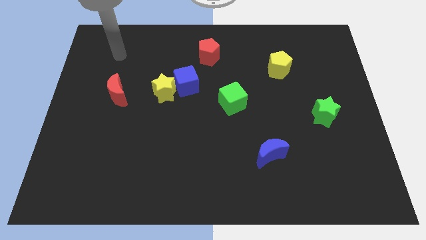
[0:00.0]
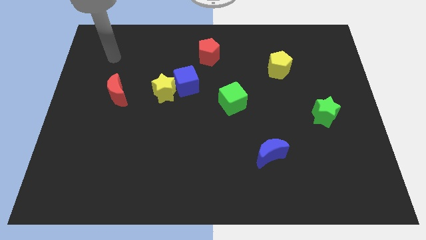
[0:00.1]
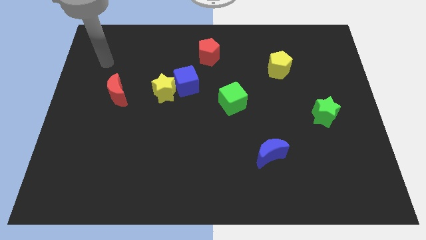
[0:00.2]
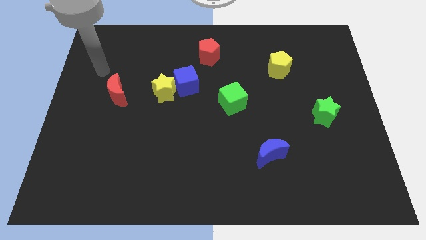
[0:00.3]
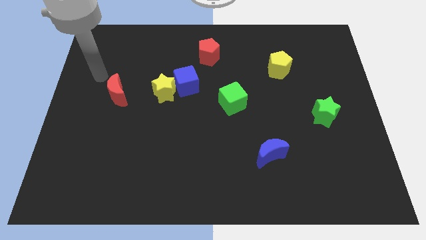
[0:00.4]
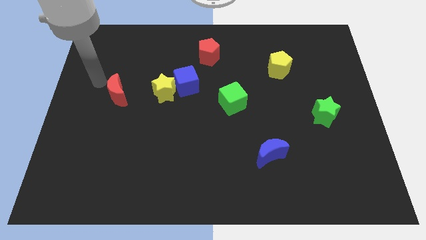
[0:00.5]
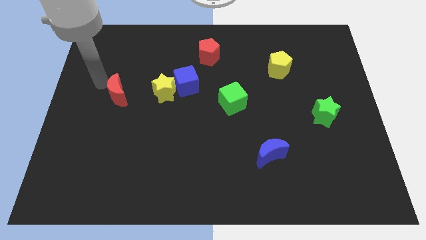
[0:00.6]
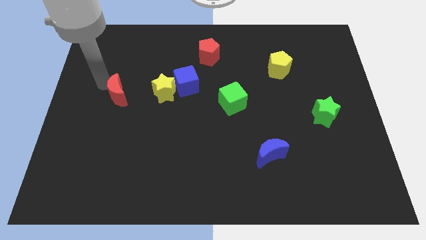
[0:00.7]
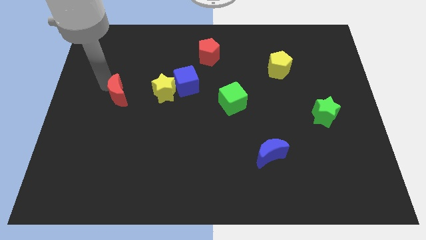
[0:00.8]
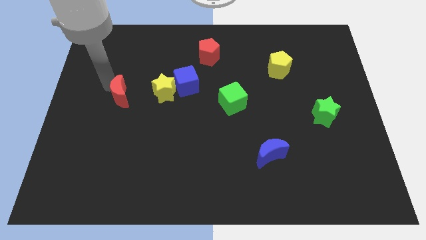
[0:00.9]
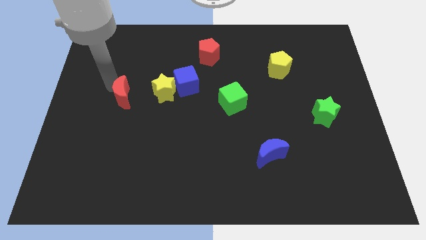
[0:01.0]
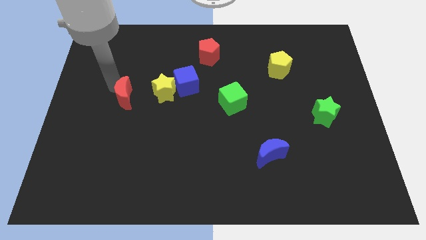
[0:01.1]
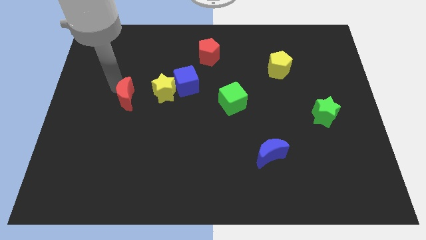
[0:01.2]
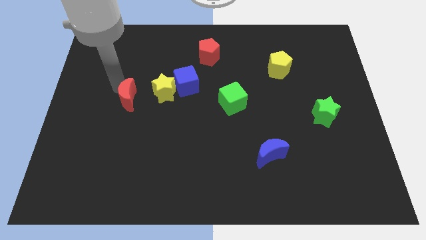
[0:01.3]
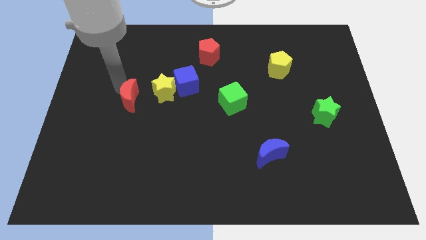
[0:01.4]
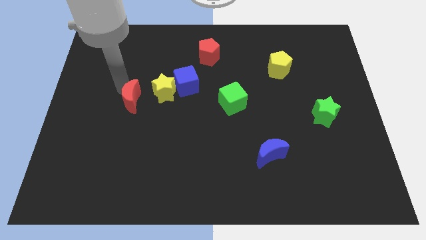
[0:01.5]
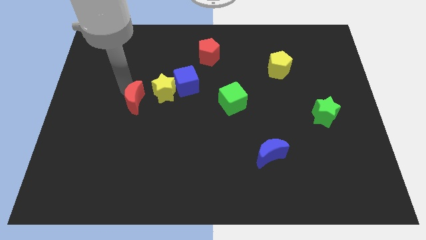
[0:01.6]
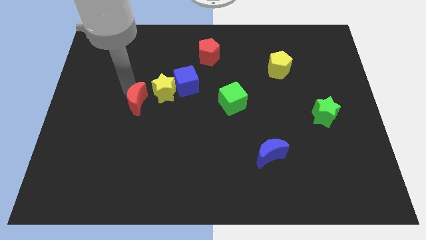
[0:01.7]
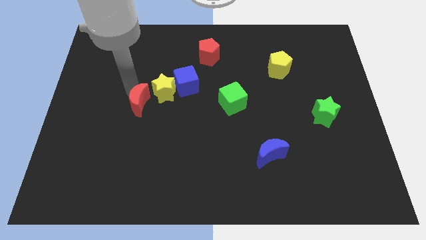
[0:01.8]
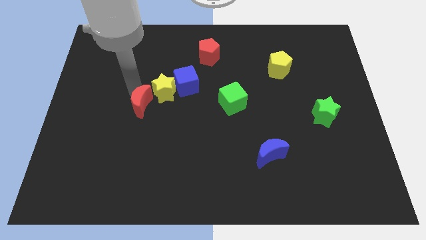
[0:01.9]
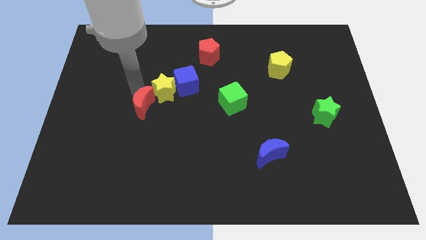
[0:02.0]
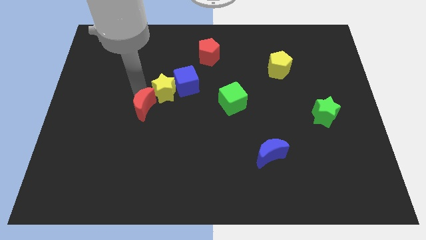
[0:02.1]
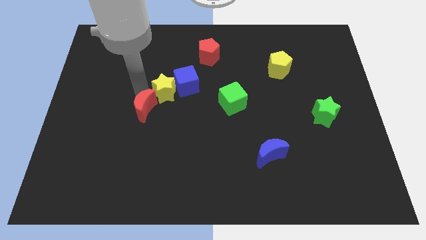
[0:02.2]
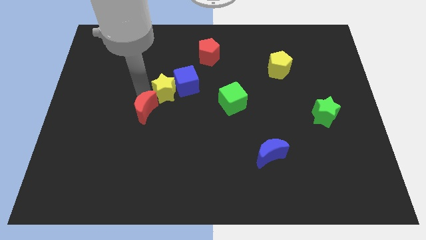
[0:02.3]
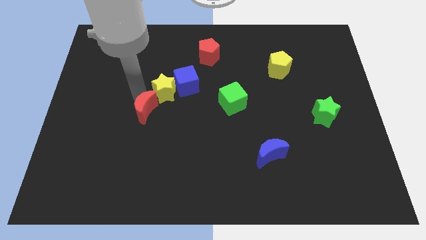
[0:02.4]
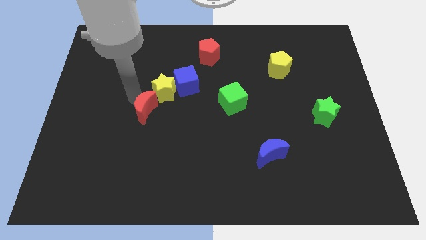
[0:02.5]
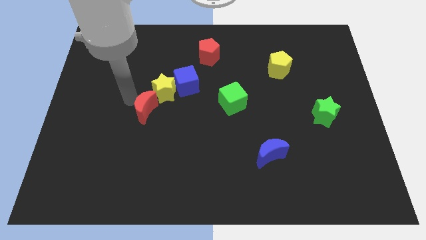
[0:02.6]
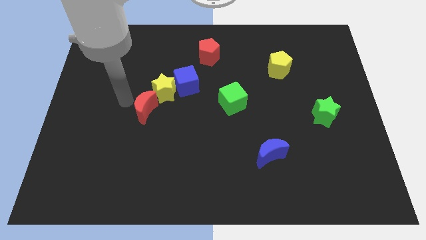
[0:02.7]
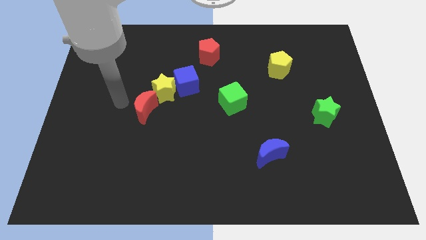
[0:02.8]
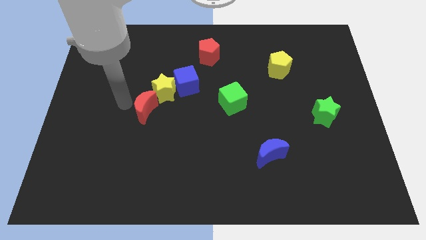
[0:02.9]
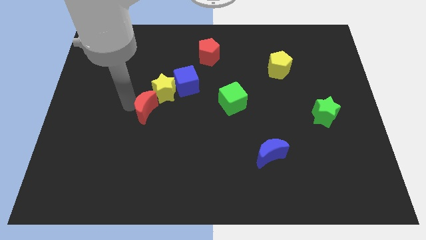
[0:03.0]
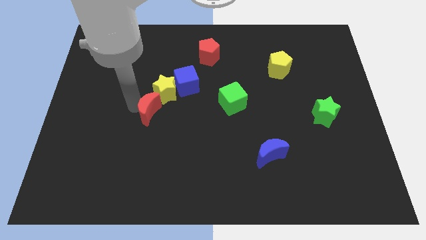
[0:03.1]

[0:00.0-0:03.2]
push the red moon somewhat right

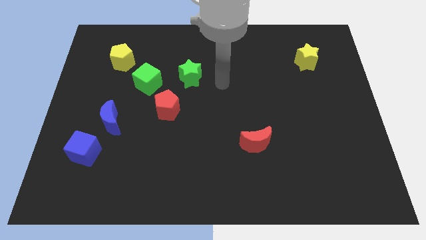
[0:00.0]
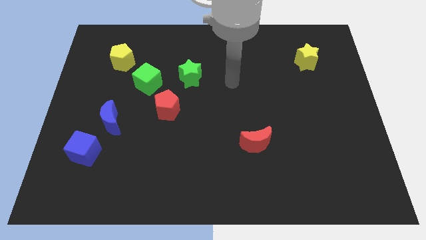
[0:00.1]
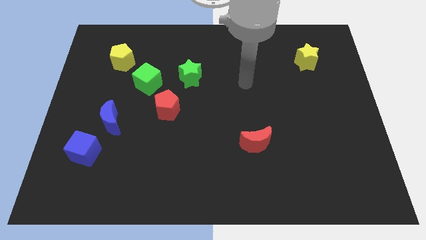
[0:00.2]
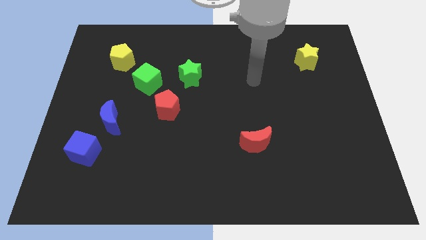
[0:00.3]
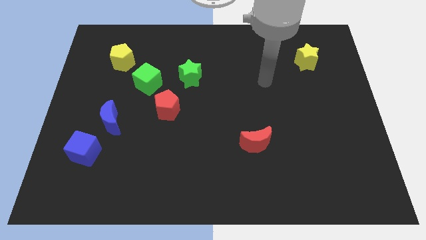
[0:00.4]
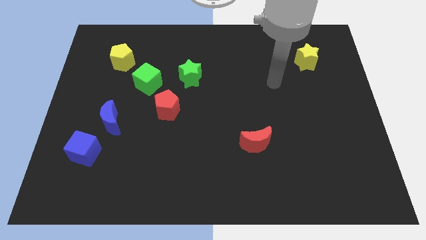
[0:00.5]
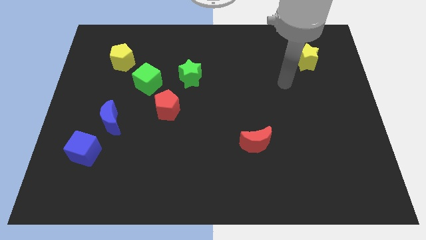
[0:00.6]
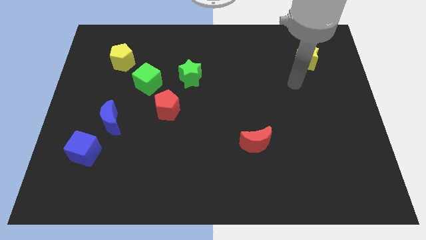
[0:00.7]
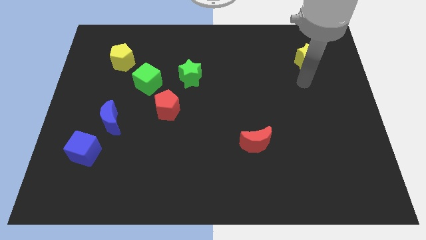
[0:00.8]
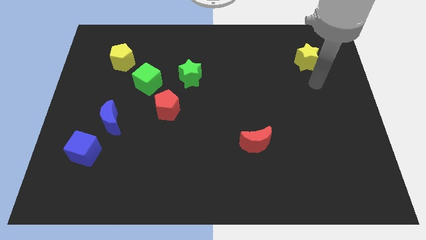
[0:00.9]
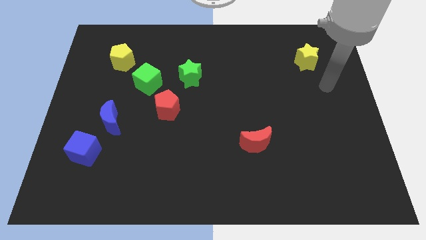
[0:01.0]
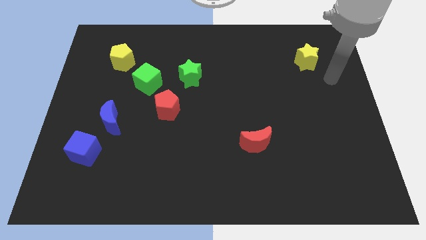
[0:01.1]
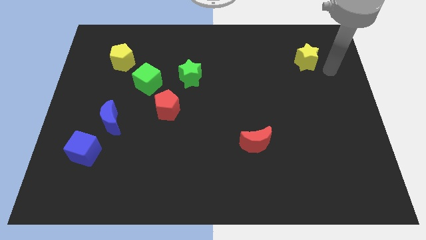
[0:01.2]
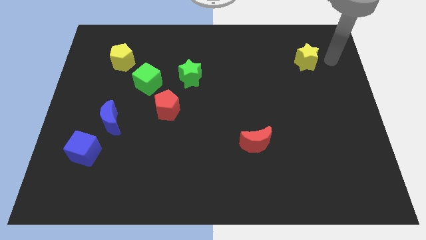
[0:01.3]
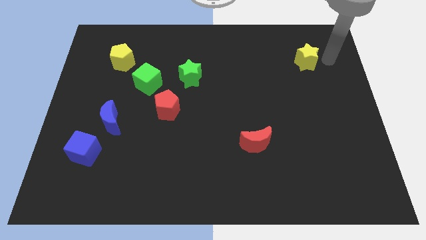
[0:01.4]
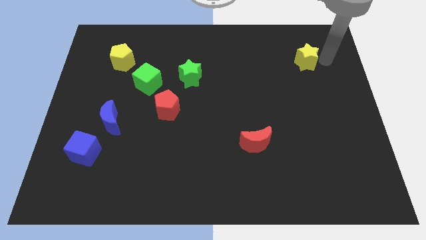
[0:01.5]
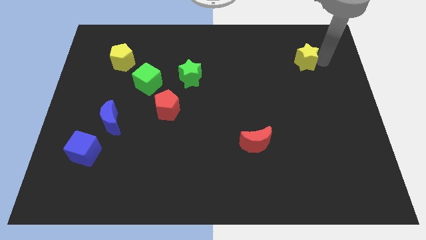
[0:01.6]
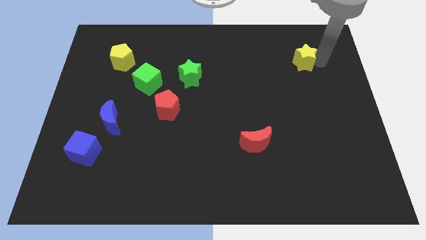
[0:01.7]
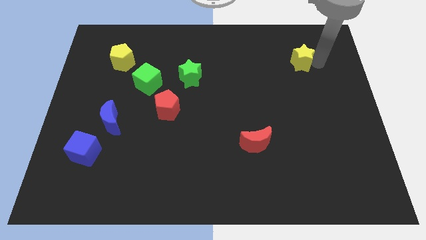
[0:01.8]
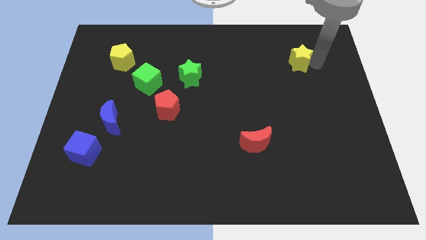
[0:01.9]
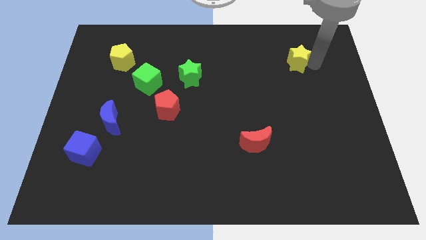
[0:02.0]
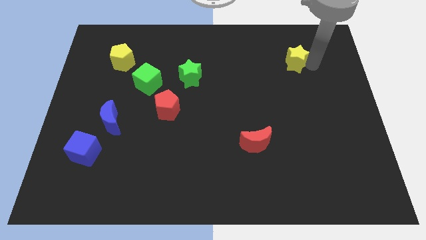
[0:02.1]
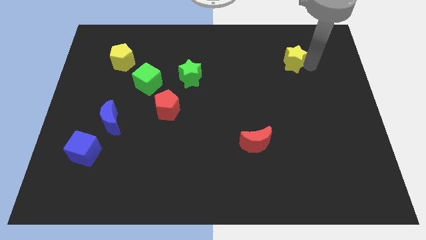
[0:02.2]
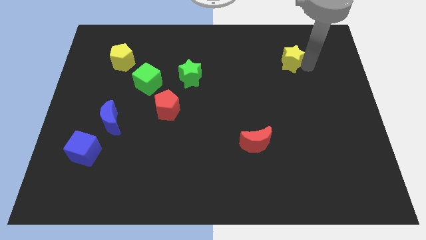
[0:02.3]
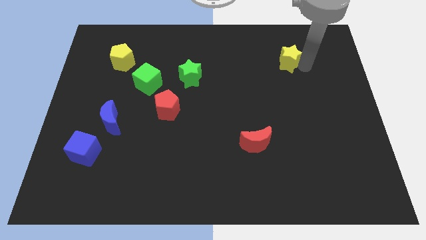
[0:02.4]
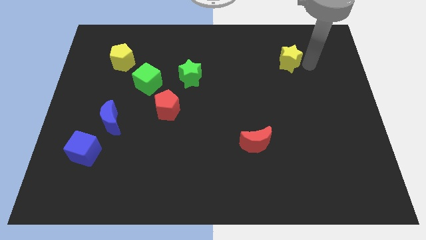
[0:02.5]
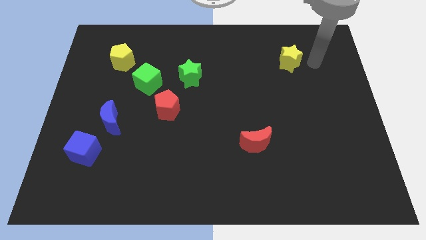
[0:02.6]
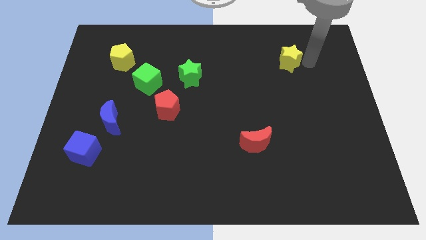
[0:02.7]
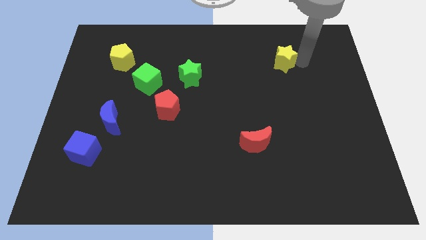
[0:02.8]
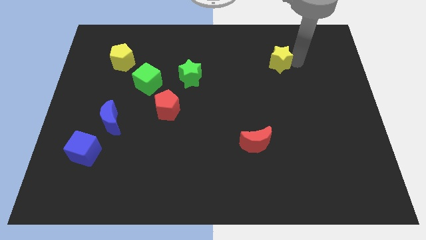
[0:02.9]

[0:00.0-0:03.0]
move the yellow star left a little bit

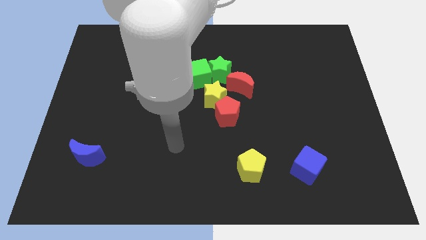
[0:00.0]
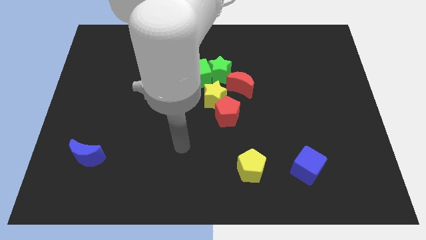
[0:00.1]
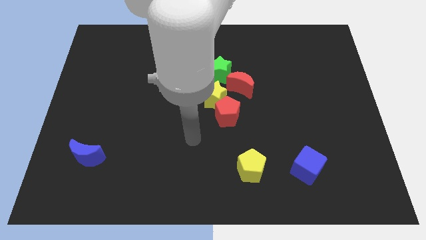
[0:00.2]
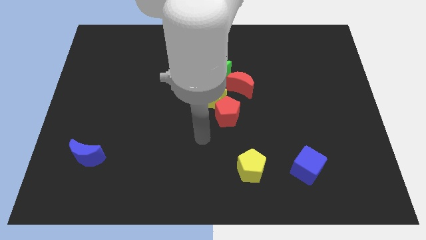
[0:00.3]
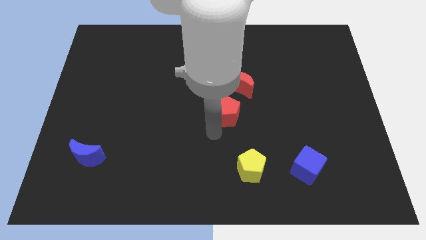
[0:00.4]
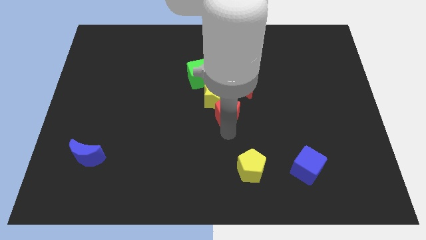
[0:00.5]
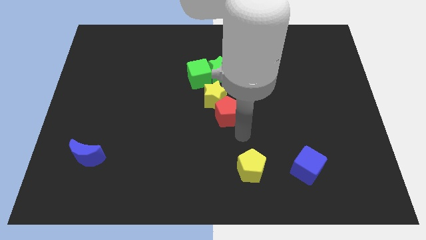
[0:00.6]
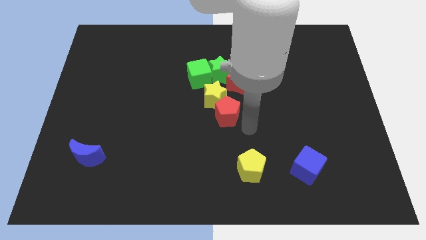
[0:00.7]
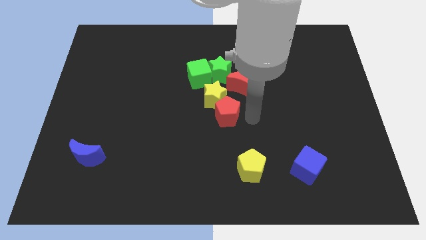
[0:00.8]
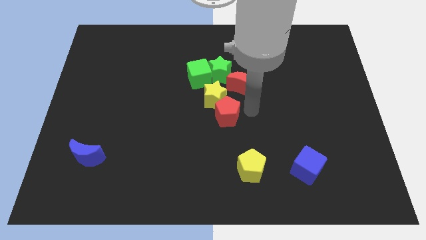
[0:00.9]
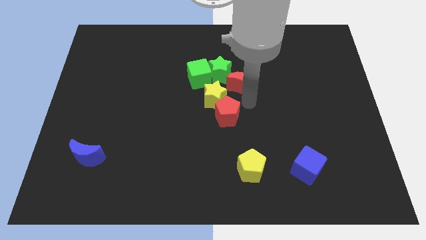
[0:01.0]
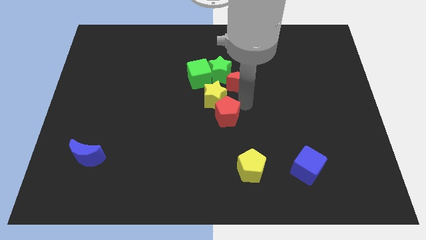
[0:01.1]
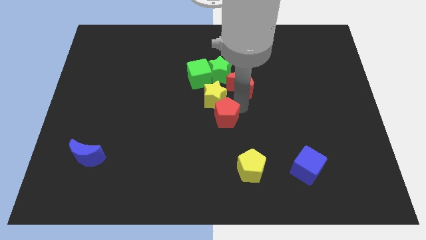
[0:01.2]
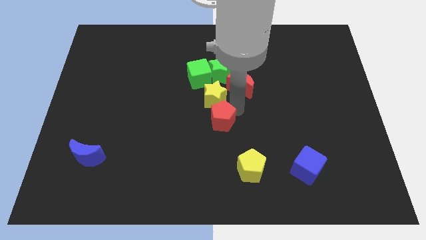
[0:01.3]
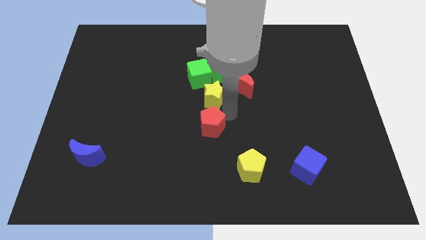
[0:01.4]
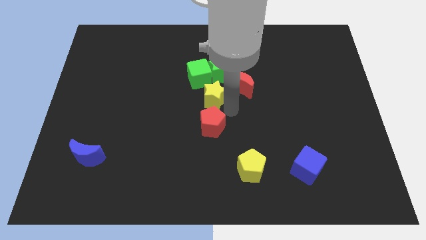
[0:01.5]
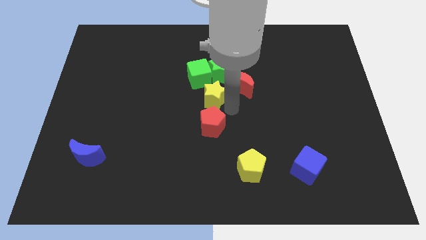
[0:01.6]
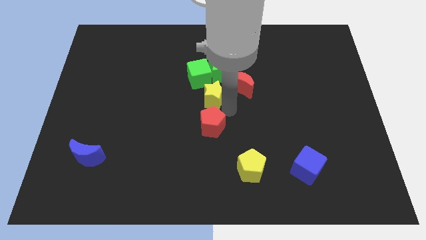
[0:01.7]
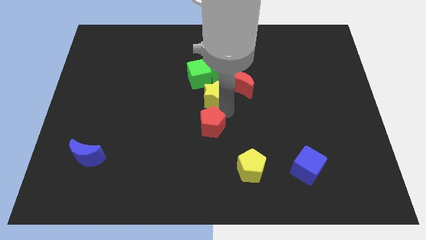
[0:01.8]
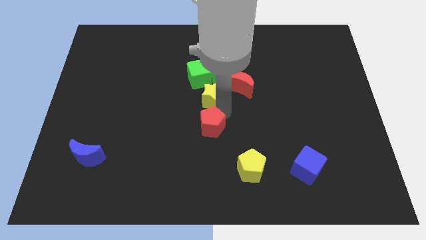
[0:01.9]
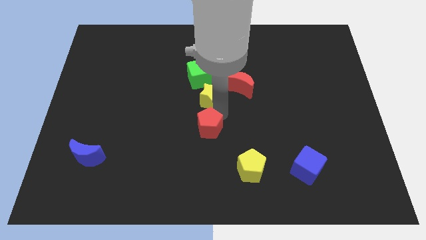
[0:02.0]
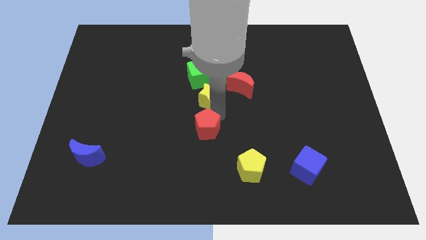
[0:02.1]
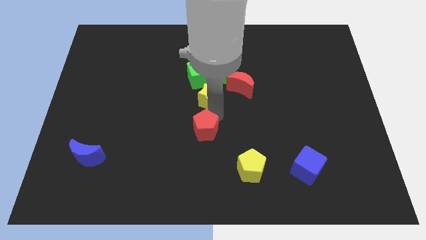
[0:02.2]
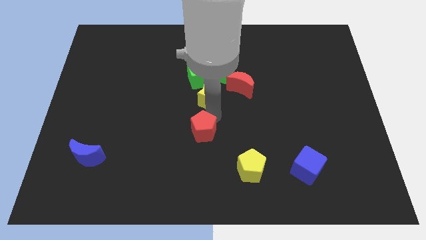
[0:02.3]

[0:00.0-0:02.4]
slightly move the red pentagon downwards and left

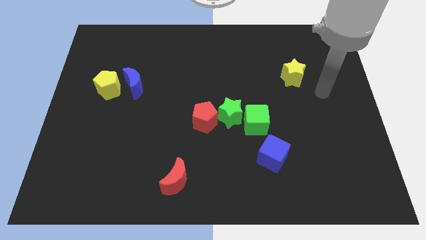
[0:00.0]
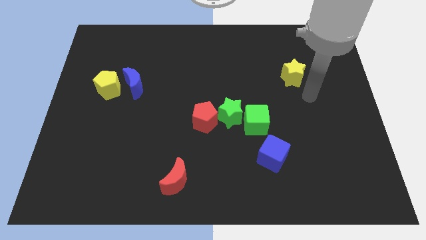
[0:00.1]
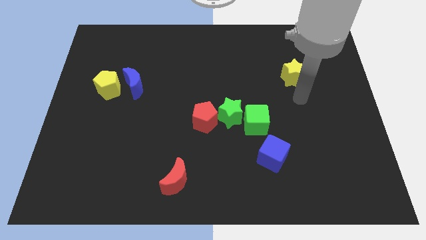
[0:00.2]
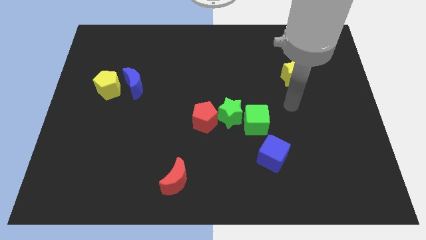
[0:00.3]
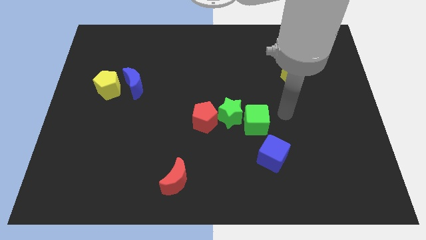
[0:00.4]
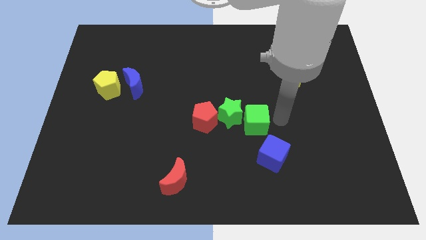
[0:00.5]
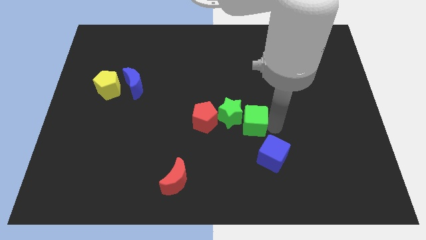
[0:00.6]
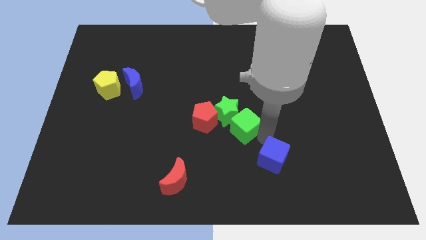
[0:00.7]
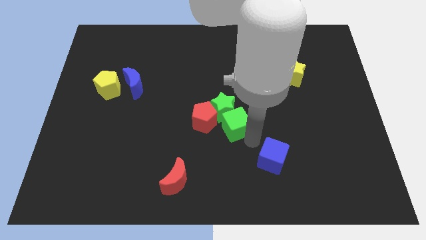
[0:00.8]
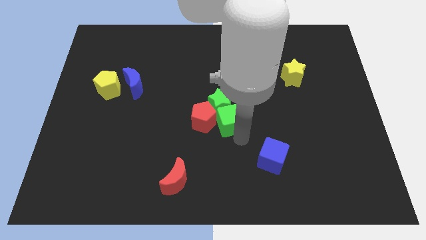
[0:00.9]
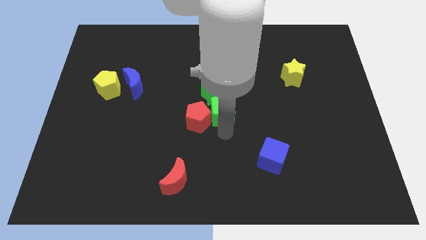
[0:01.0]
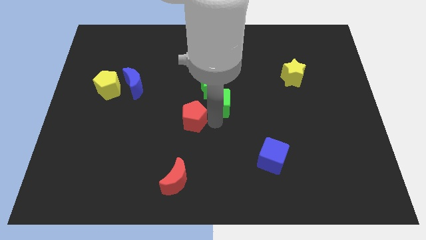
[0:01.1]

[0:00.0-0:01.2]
push the green star a little bit upwards
